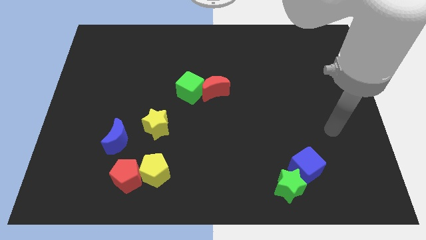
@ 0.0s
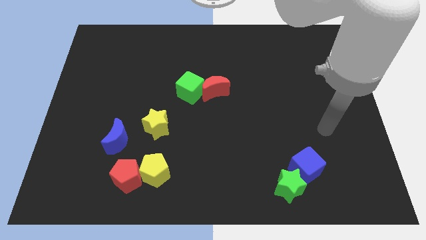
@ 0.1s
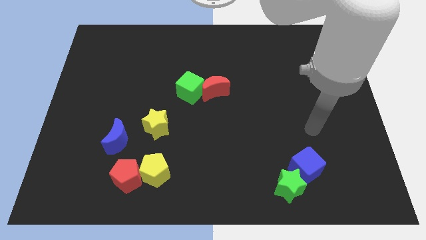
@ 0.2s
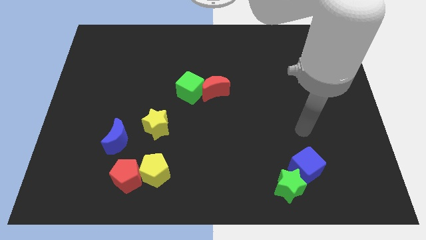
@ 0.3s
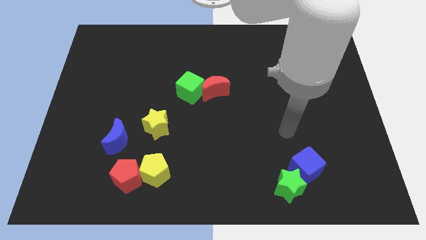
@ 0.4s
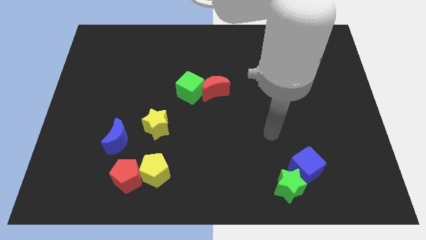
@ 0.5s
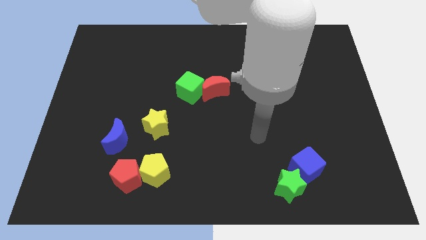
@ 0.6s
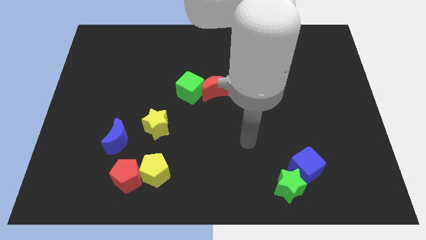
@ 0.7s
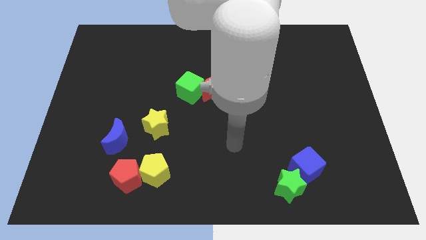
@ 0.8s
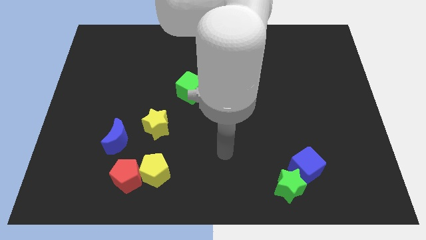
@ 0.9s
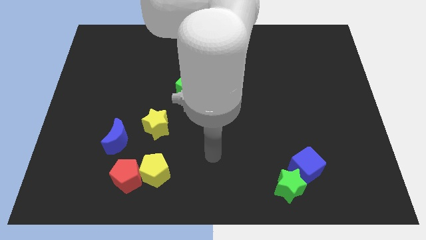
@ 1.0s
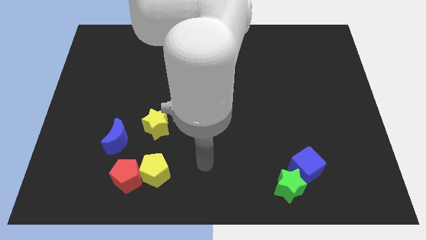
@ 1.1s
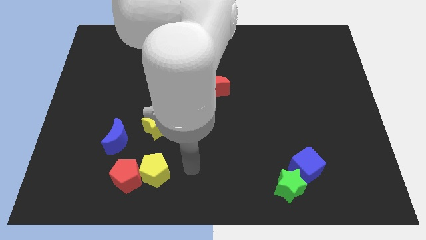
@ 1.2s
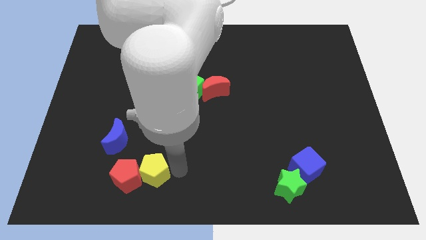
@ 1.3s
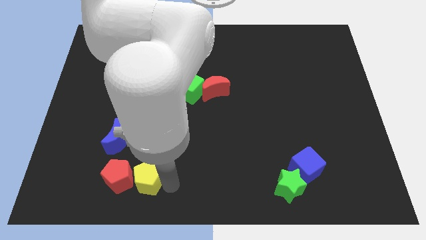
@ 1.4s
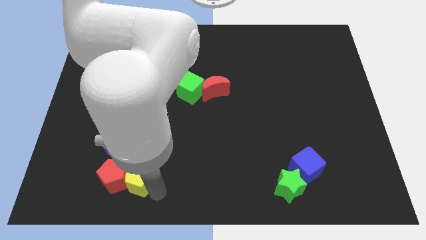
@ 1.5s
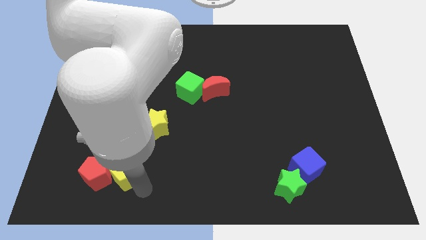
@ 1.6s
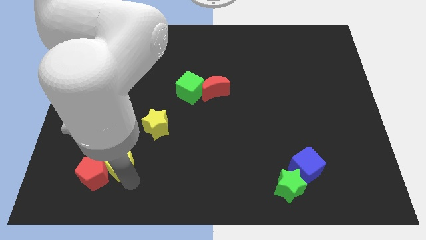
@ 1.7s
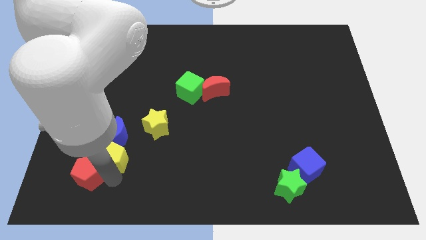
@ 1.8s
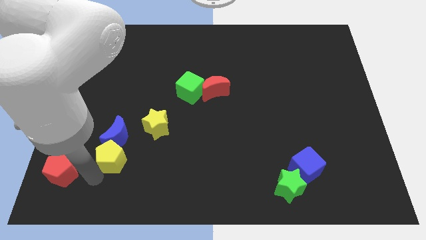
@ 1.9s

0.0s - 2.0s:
separate the yellow pentagon from the red pentagon

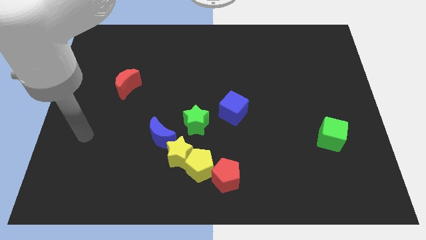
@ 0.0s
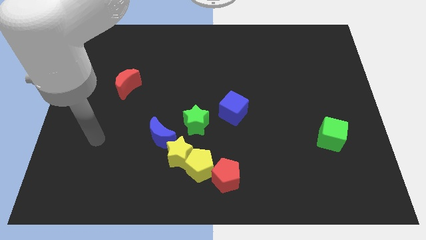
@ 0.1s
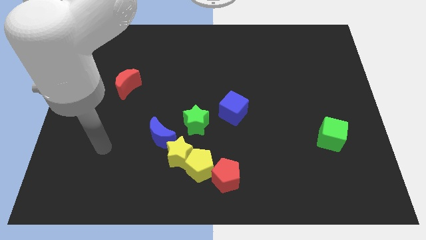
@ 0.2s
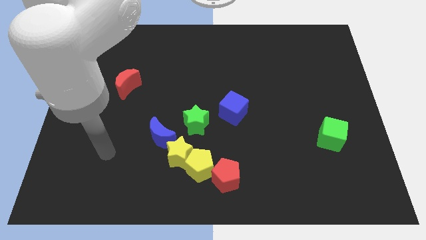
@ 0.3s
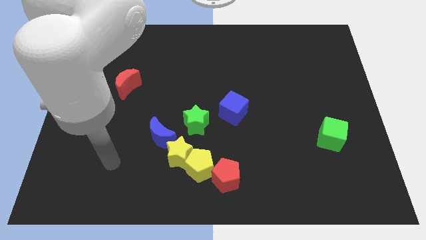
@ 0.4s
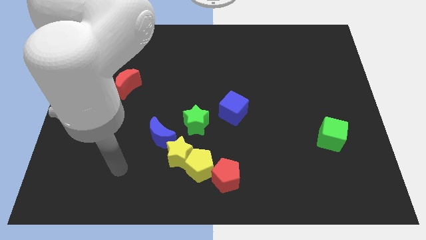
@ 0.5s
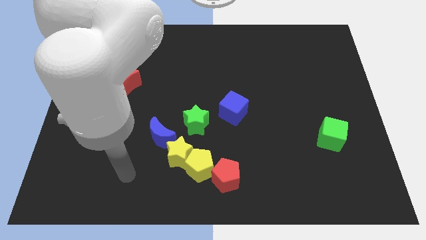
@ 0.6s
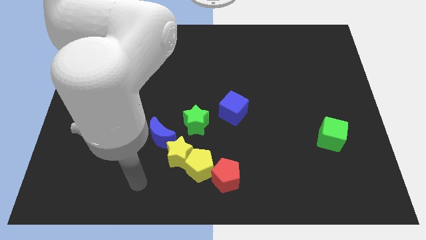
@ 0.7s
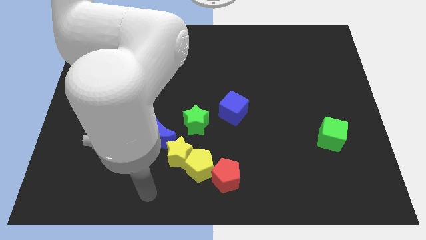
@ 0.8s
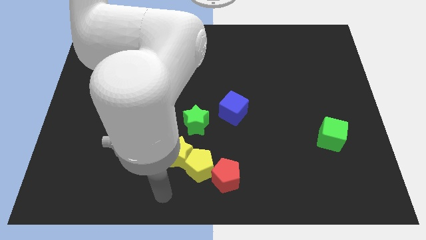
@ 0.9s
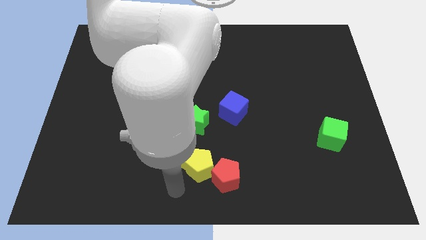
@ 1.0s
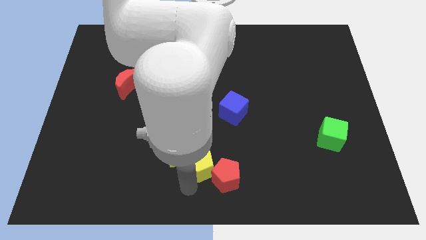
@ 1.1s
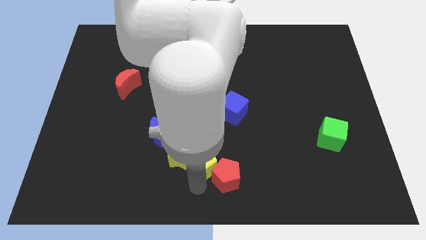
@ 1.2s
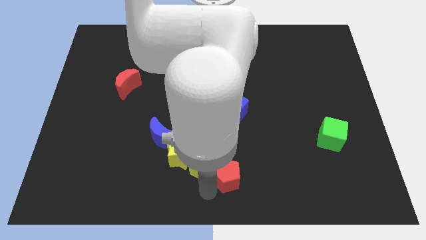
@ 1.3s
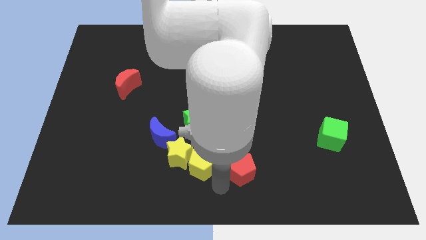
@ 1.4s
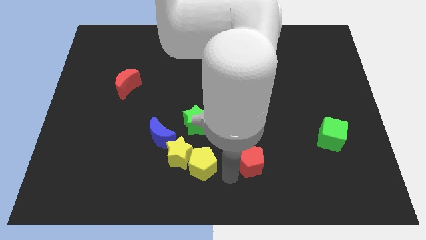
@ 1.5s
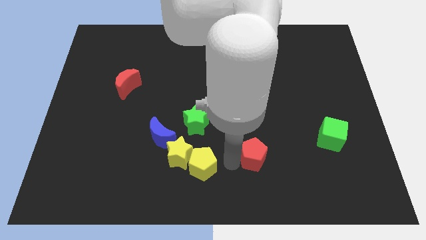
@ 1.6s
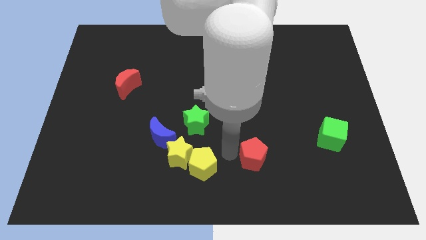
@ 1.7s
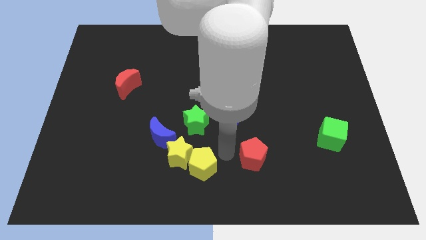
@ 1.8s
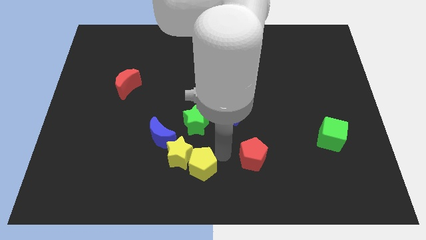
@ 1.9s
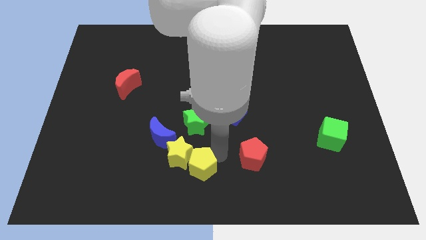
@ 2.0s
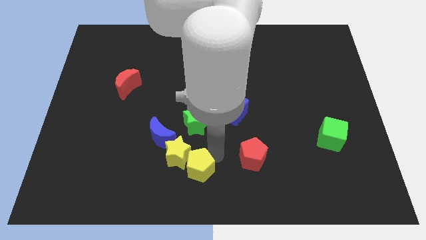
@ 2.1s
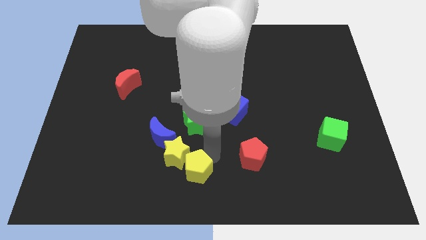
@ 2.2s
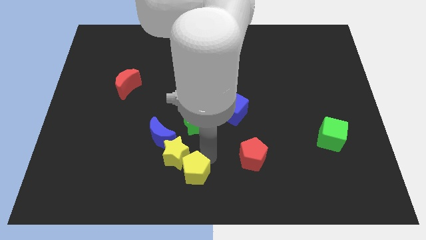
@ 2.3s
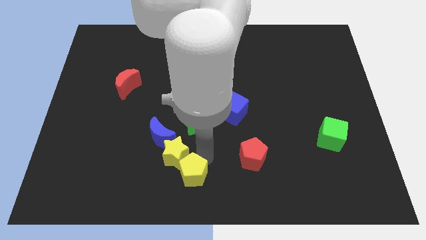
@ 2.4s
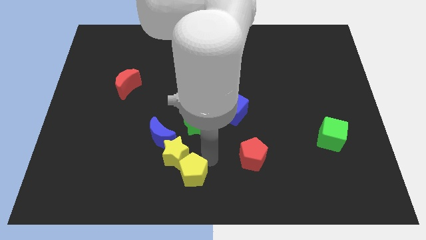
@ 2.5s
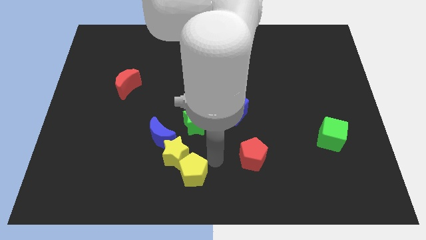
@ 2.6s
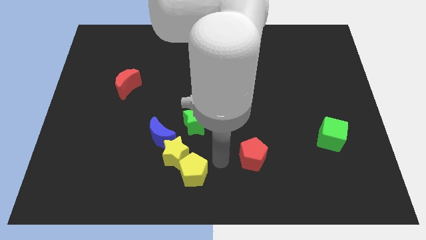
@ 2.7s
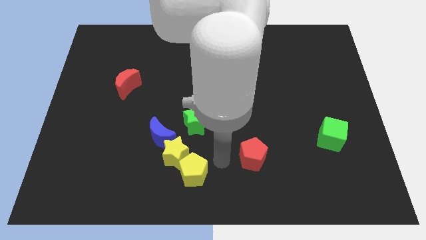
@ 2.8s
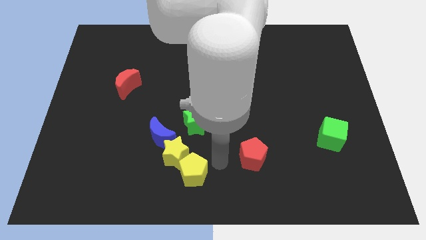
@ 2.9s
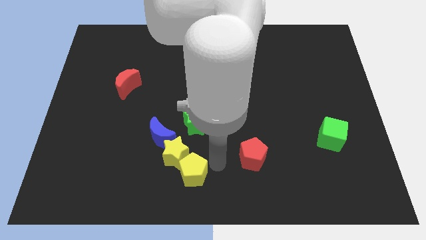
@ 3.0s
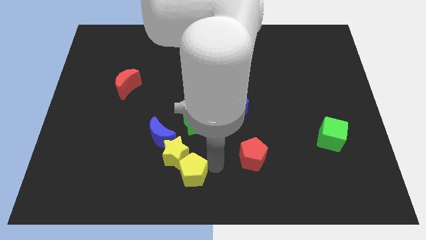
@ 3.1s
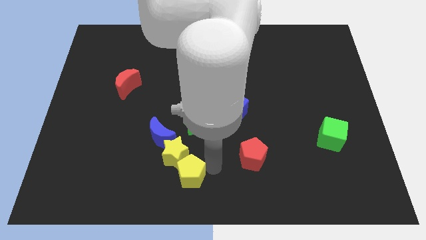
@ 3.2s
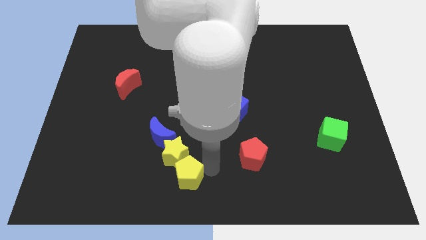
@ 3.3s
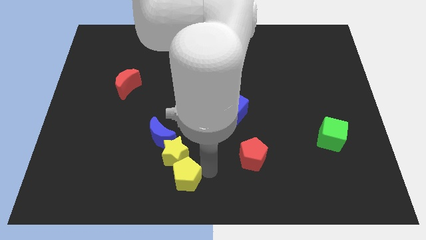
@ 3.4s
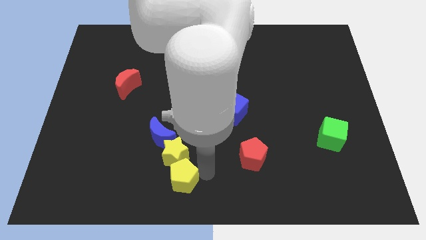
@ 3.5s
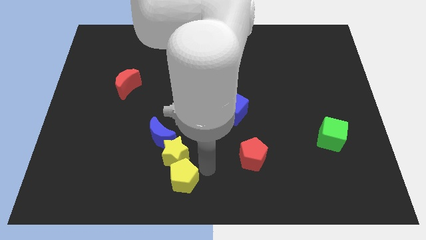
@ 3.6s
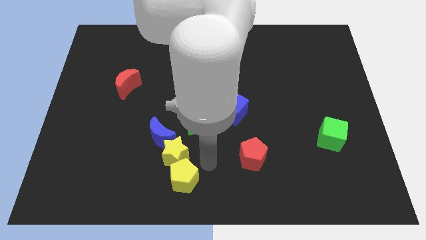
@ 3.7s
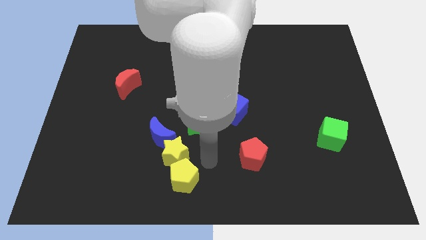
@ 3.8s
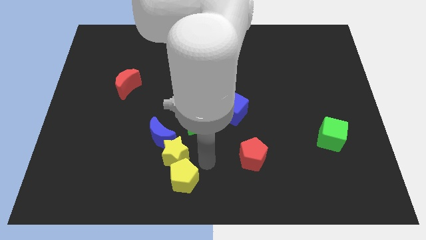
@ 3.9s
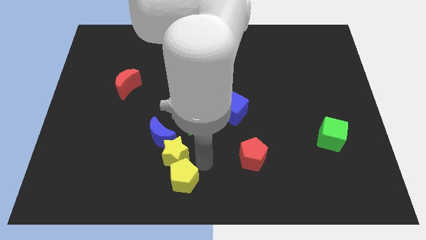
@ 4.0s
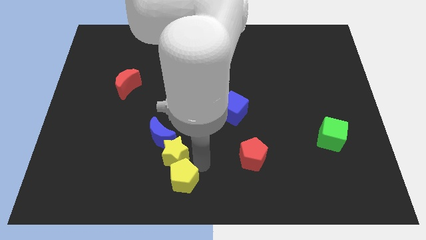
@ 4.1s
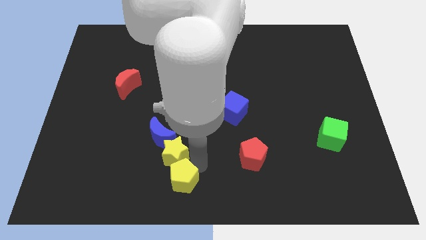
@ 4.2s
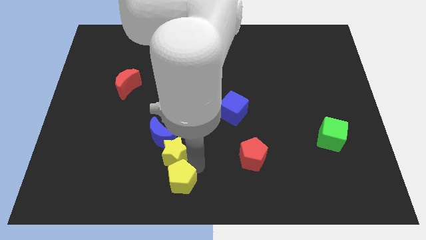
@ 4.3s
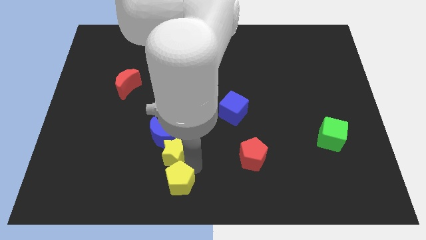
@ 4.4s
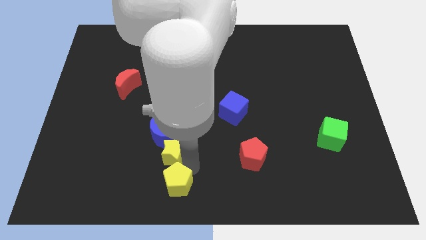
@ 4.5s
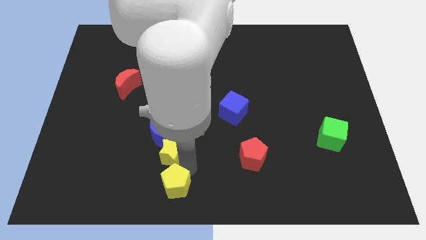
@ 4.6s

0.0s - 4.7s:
move the yellow pentagon away from the yellow star and red pentagon

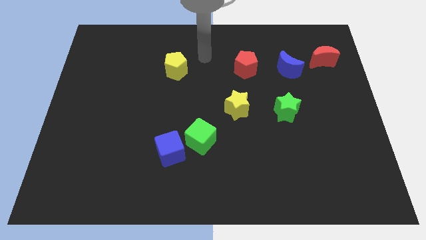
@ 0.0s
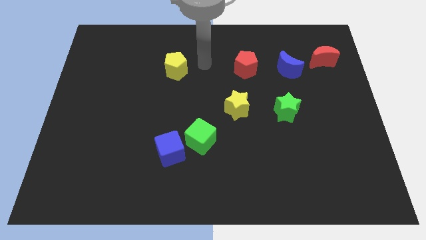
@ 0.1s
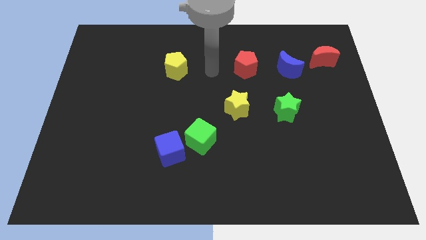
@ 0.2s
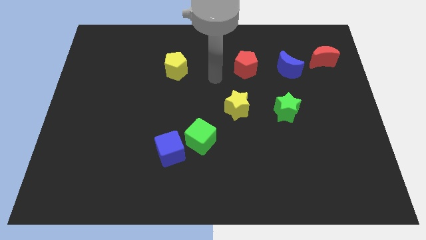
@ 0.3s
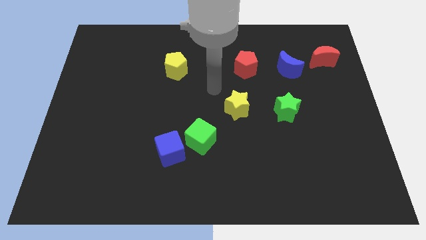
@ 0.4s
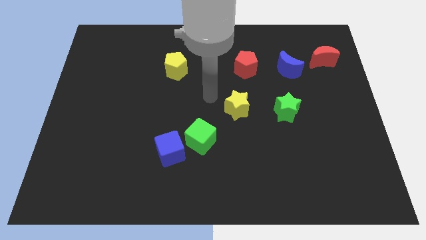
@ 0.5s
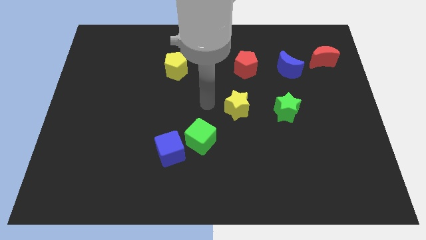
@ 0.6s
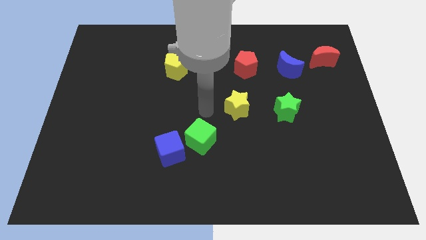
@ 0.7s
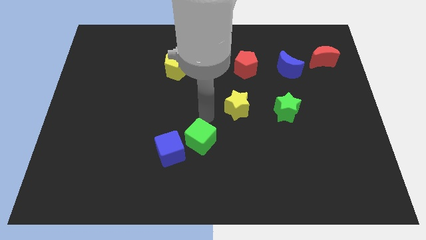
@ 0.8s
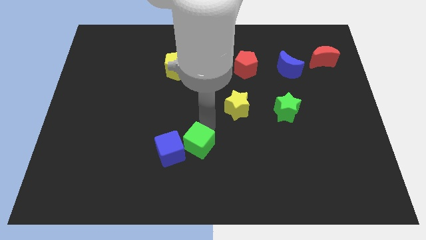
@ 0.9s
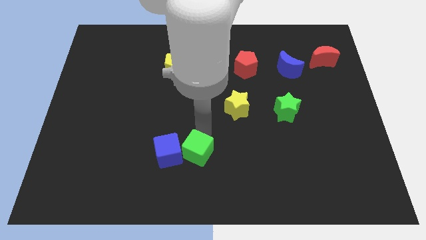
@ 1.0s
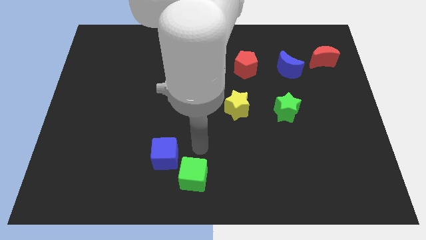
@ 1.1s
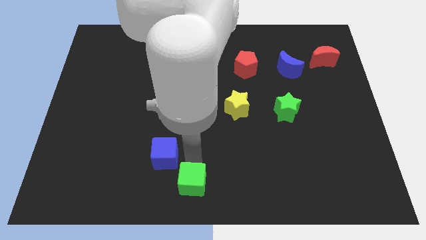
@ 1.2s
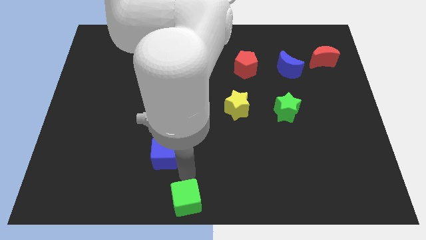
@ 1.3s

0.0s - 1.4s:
pull the blue cube apart from the green cube

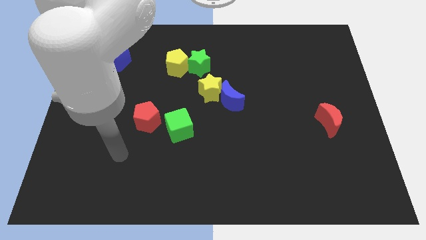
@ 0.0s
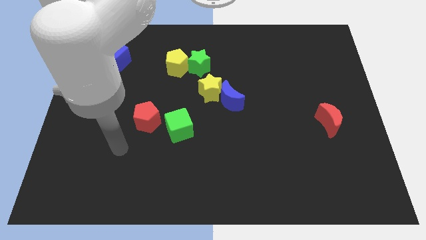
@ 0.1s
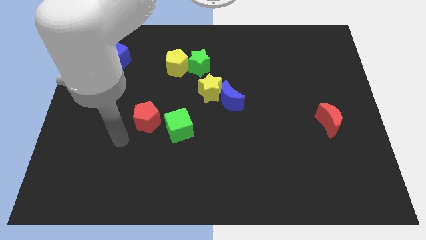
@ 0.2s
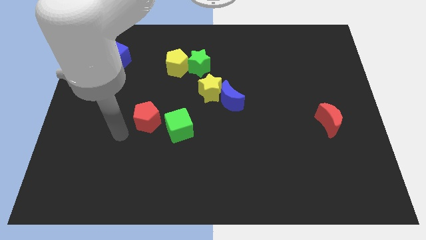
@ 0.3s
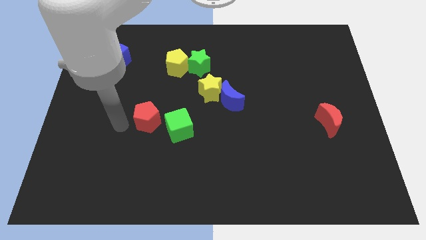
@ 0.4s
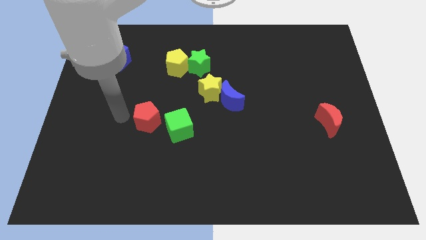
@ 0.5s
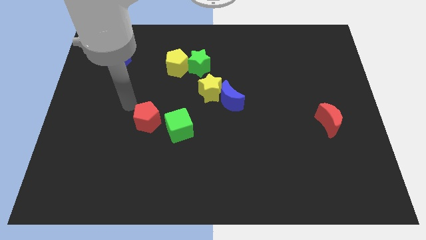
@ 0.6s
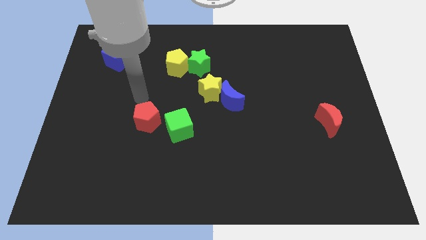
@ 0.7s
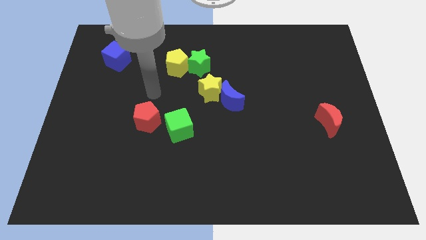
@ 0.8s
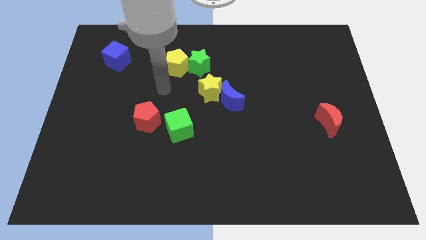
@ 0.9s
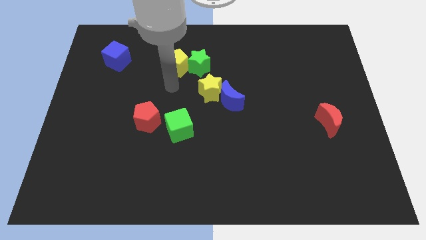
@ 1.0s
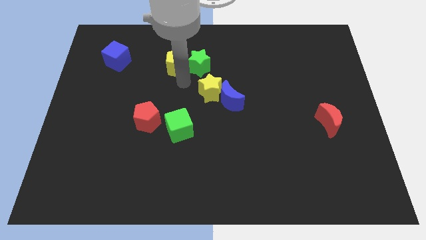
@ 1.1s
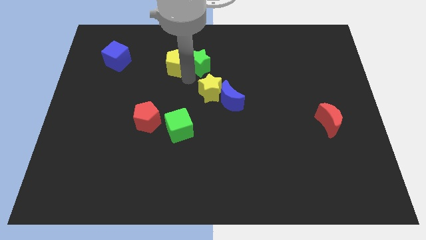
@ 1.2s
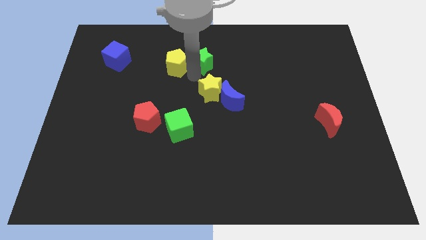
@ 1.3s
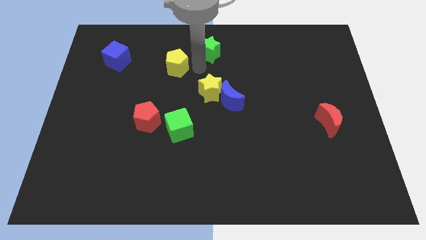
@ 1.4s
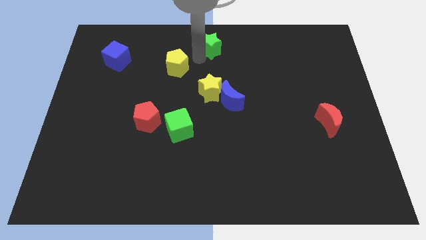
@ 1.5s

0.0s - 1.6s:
move the yellow pentagon away from the green star
